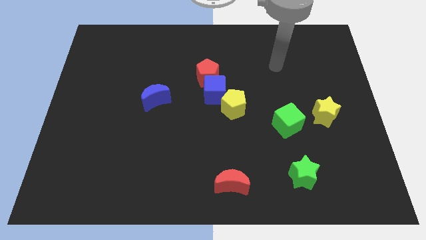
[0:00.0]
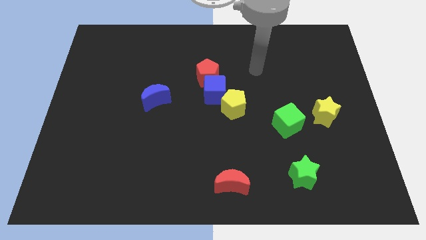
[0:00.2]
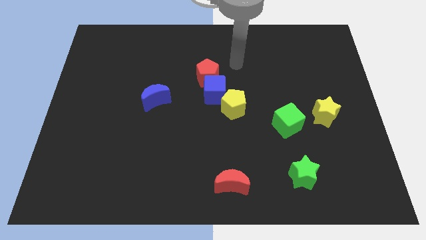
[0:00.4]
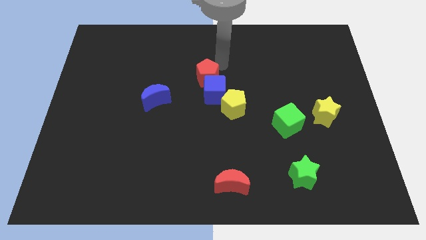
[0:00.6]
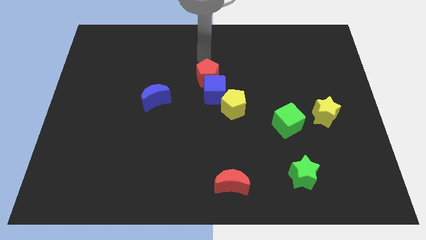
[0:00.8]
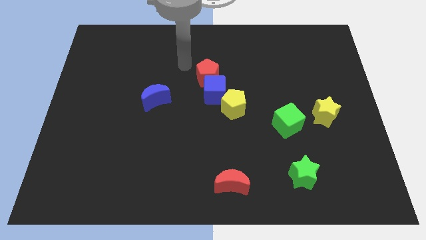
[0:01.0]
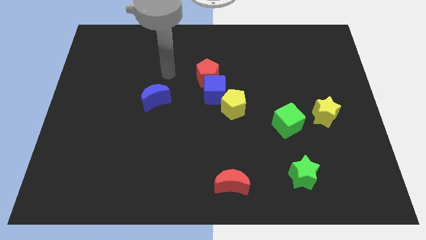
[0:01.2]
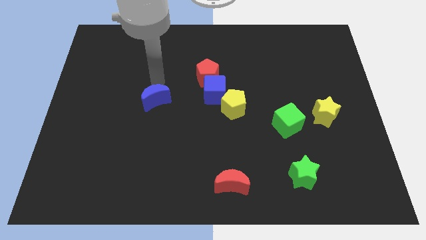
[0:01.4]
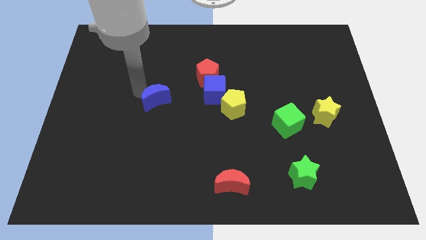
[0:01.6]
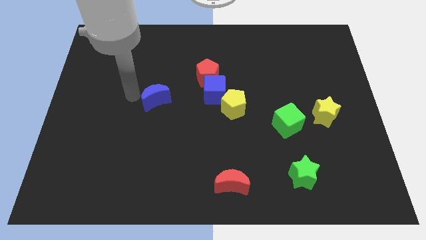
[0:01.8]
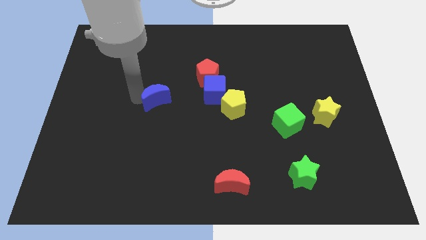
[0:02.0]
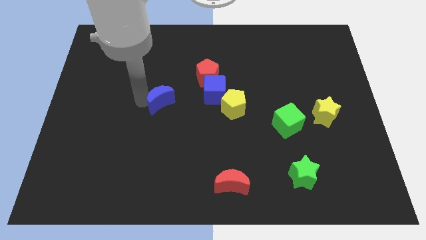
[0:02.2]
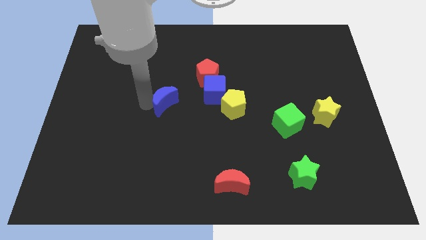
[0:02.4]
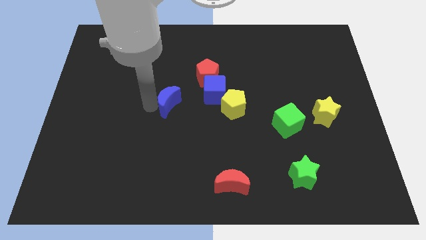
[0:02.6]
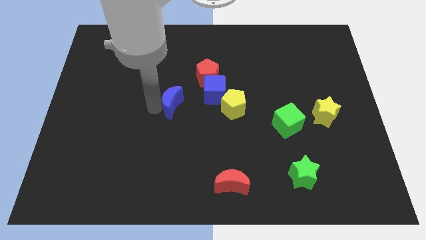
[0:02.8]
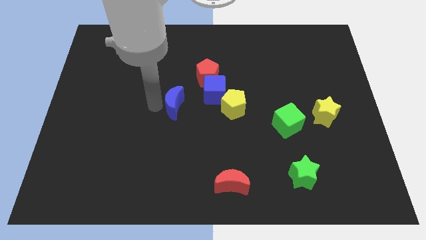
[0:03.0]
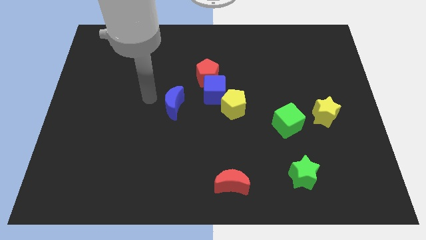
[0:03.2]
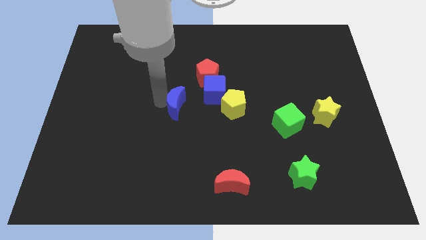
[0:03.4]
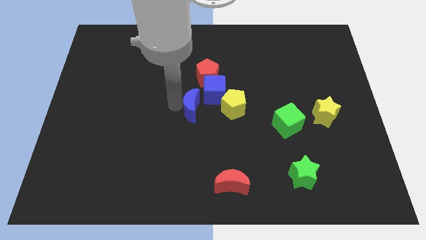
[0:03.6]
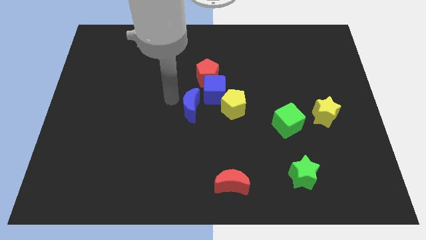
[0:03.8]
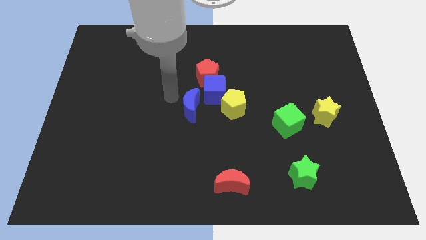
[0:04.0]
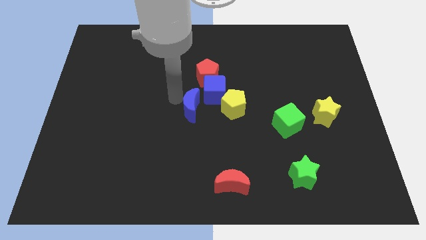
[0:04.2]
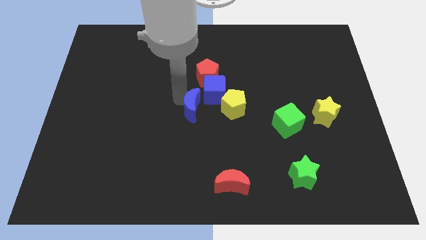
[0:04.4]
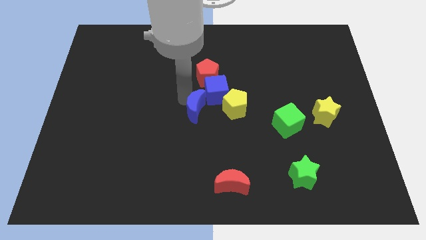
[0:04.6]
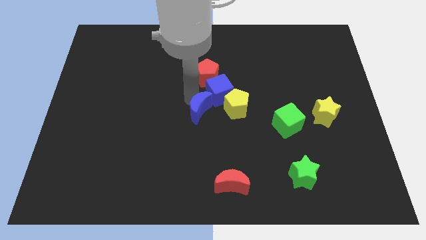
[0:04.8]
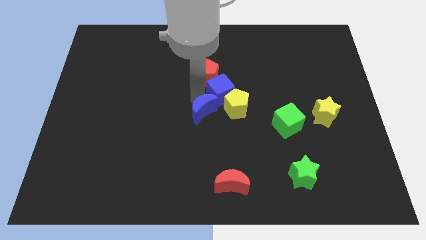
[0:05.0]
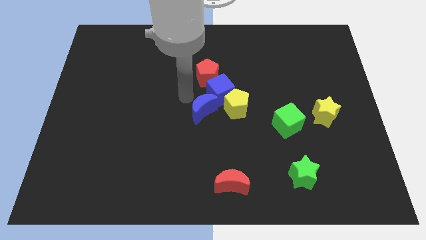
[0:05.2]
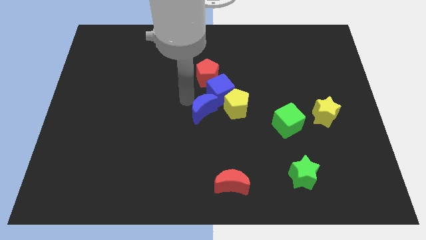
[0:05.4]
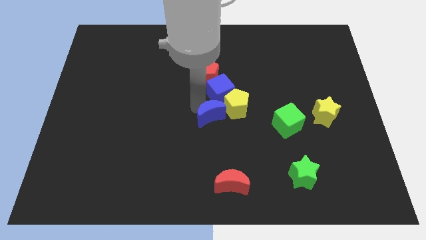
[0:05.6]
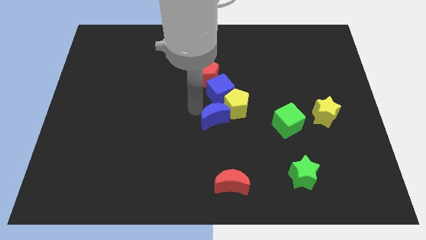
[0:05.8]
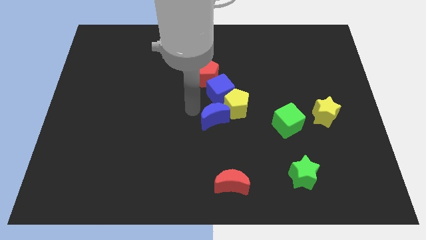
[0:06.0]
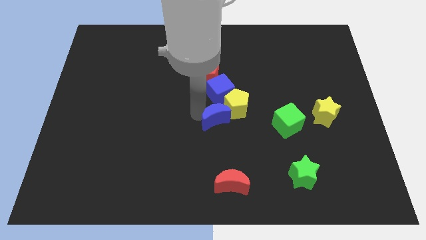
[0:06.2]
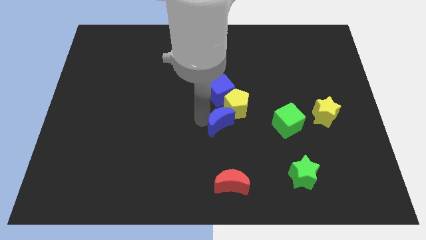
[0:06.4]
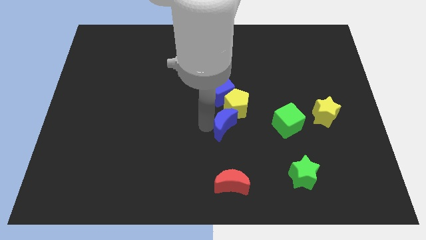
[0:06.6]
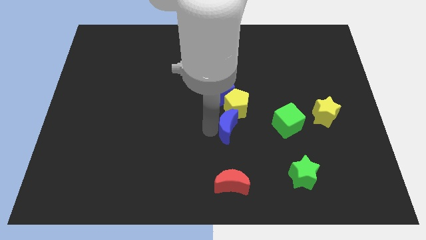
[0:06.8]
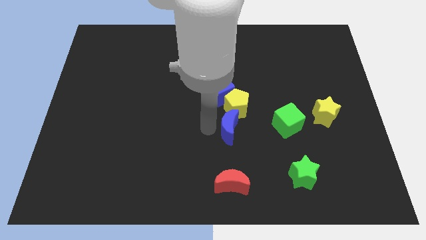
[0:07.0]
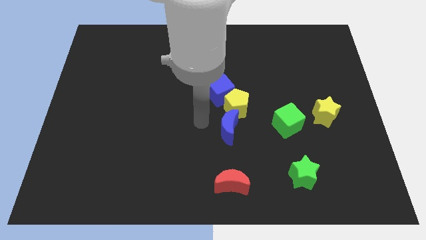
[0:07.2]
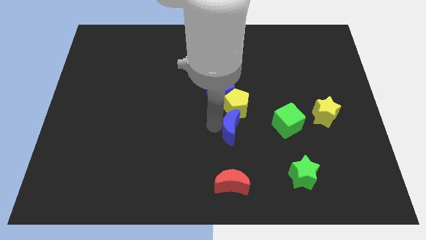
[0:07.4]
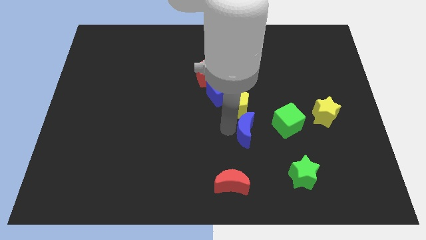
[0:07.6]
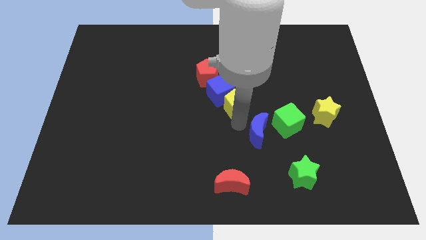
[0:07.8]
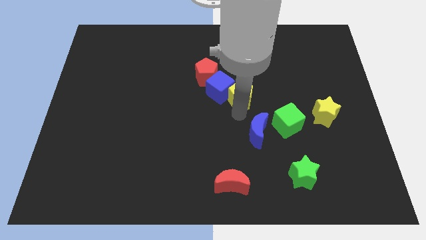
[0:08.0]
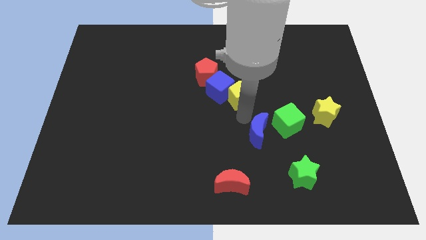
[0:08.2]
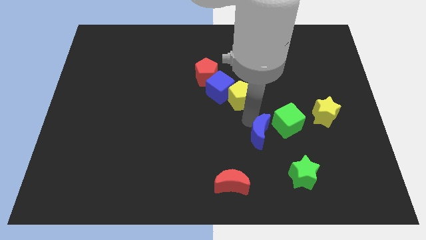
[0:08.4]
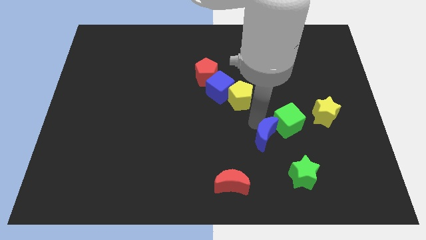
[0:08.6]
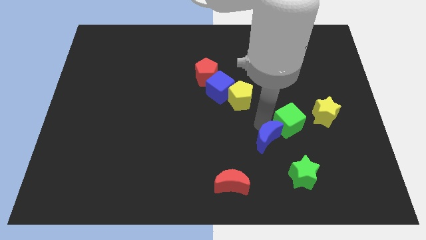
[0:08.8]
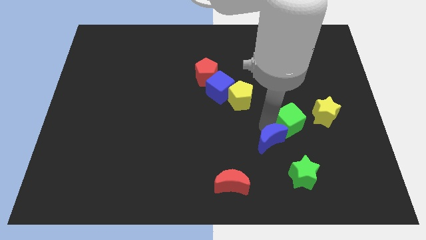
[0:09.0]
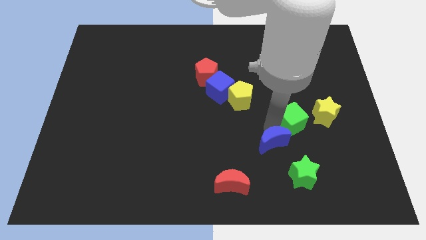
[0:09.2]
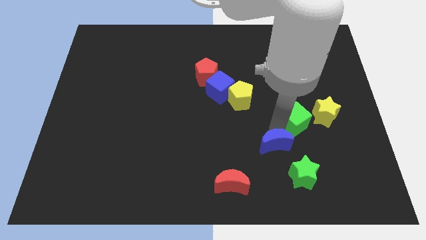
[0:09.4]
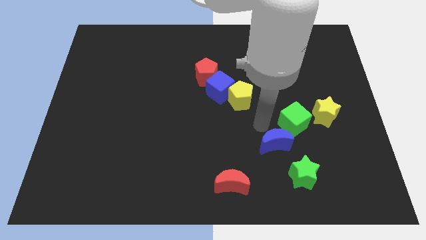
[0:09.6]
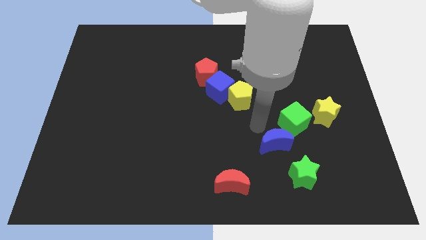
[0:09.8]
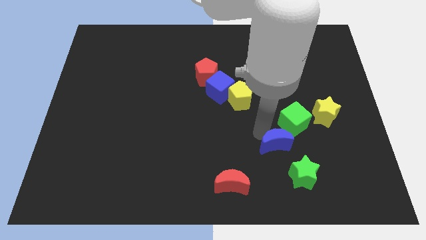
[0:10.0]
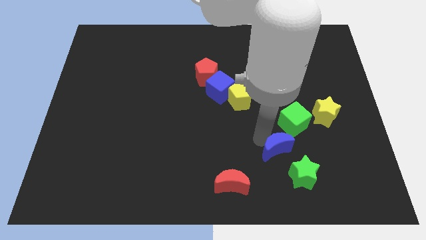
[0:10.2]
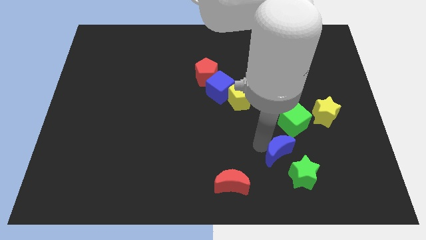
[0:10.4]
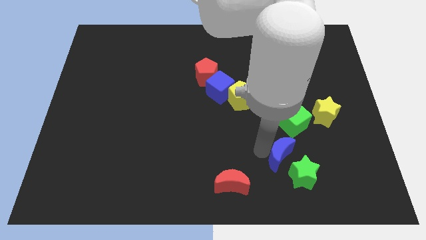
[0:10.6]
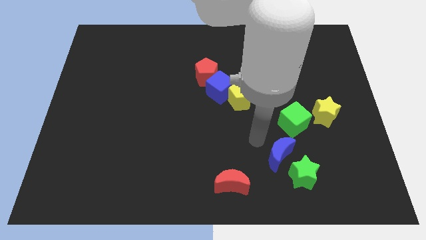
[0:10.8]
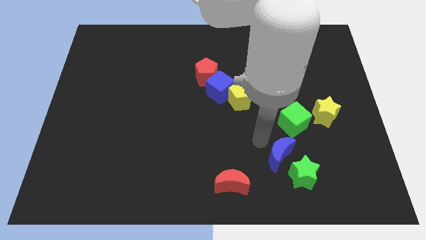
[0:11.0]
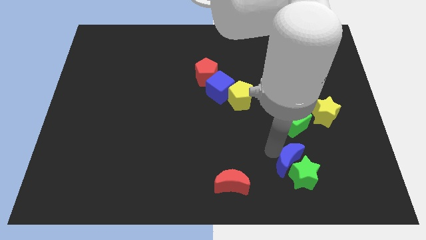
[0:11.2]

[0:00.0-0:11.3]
move the blue moon towards the green star

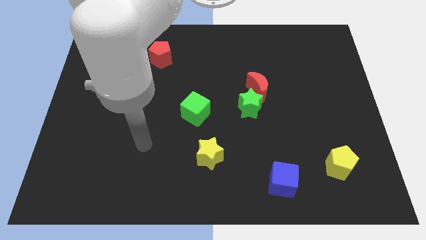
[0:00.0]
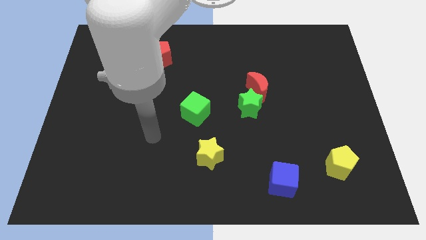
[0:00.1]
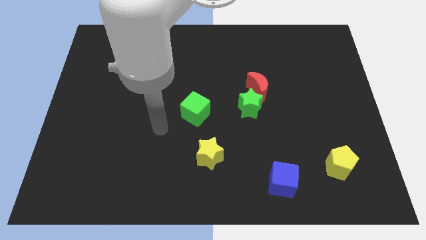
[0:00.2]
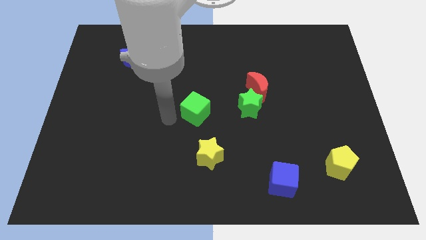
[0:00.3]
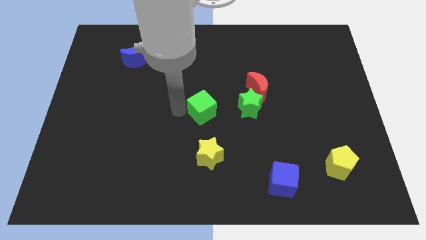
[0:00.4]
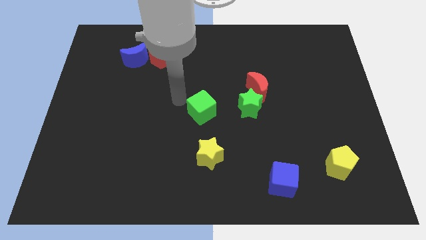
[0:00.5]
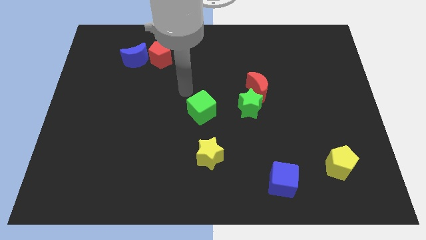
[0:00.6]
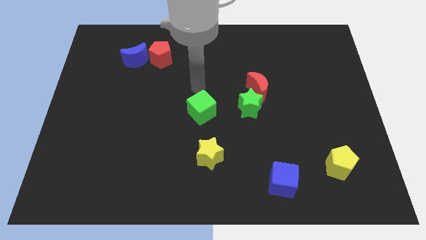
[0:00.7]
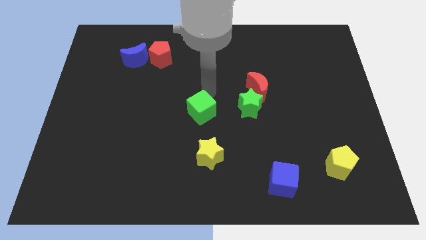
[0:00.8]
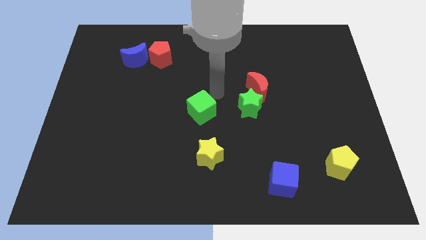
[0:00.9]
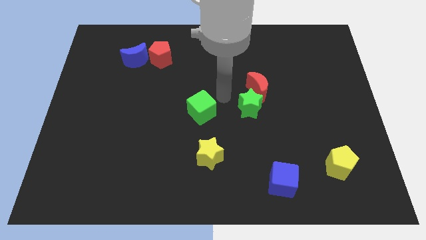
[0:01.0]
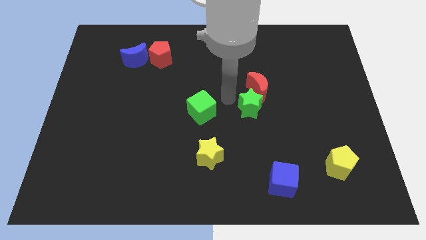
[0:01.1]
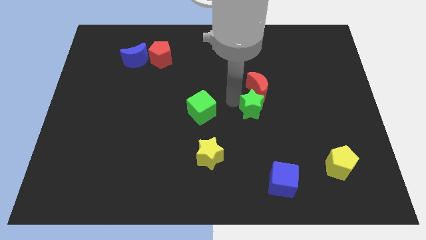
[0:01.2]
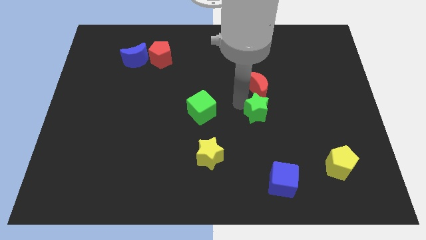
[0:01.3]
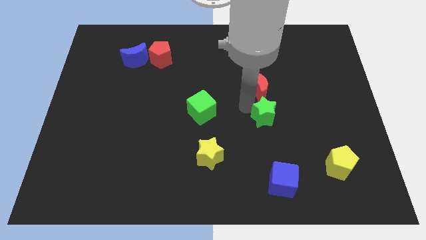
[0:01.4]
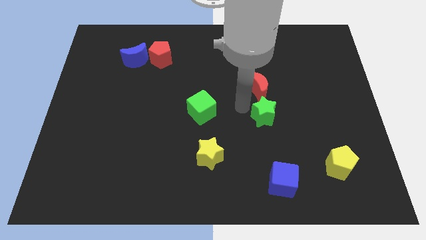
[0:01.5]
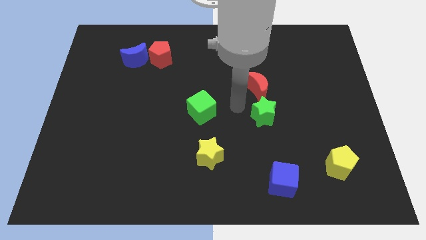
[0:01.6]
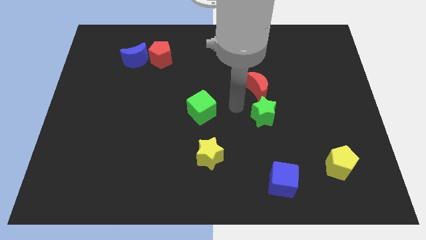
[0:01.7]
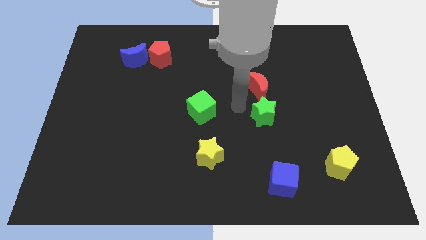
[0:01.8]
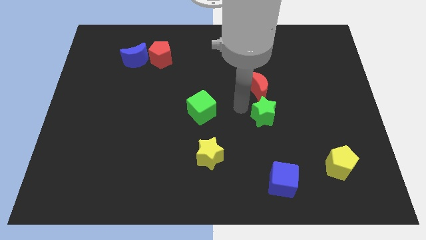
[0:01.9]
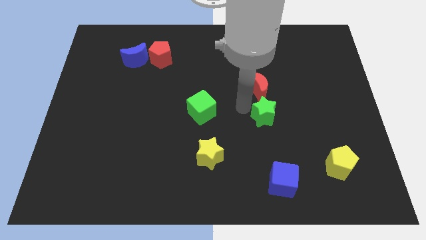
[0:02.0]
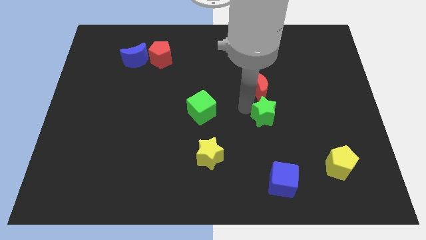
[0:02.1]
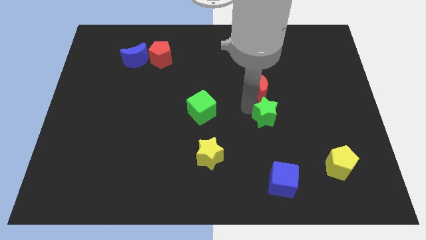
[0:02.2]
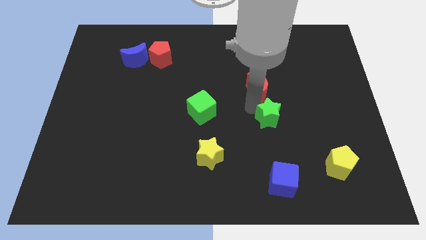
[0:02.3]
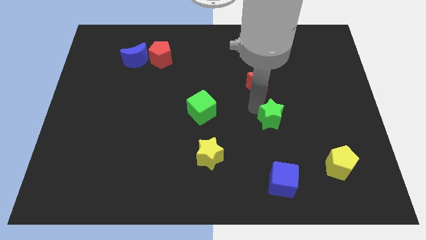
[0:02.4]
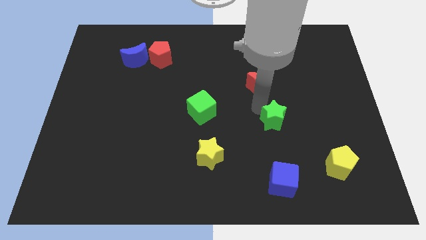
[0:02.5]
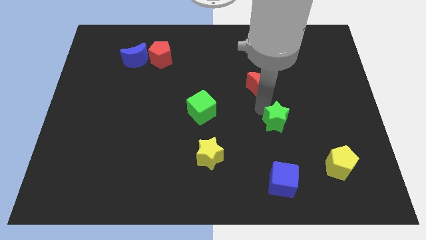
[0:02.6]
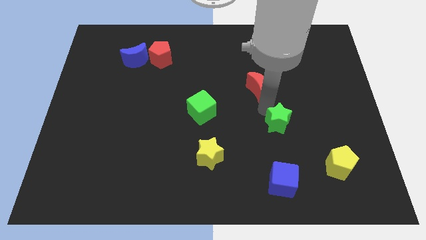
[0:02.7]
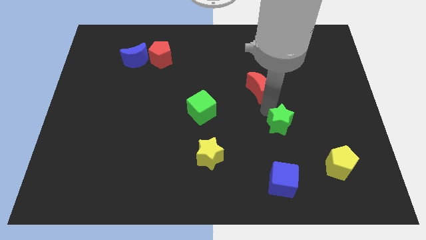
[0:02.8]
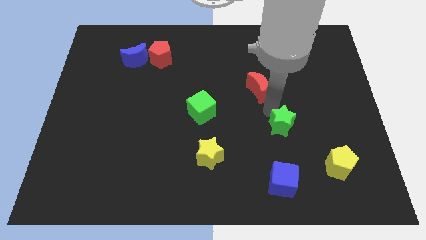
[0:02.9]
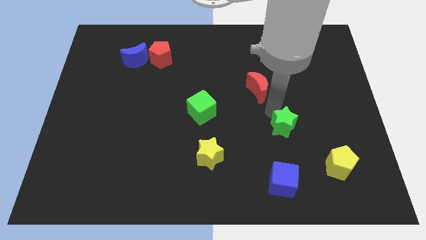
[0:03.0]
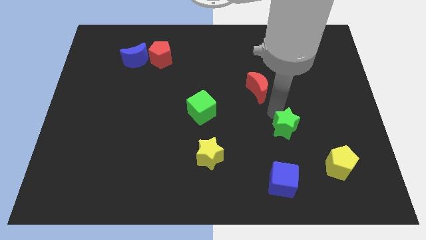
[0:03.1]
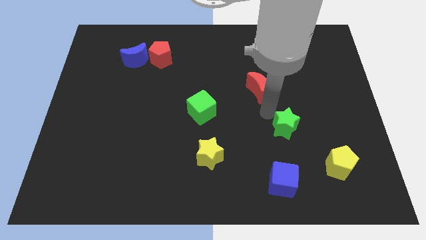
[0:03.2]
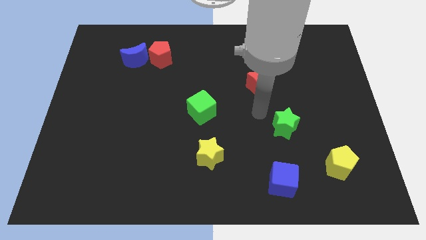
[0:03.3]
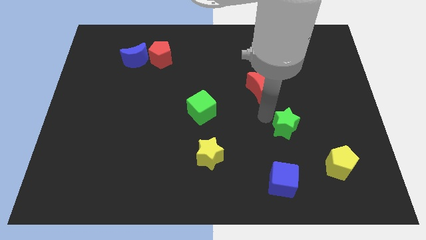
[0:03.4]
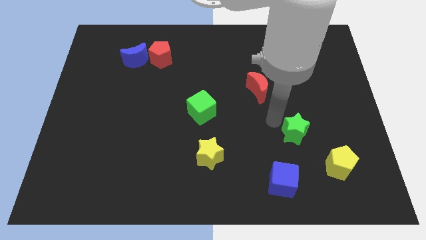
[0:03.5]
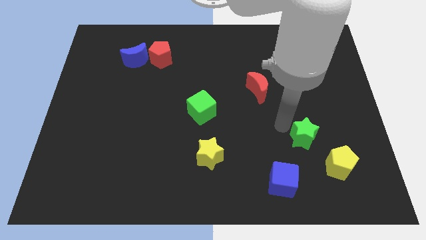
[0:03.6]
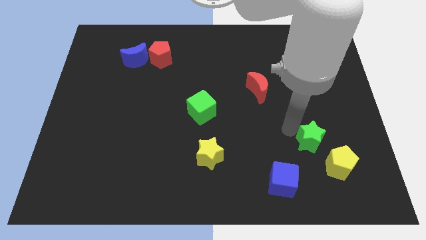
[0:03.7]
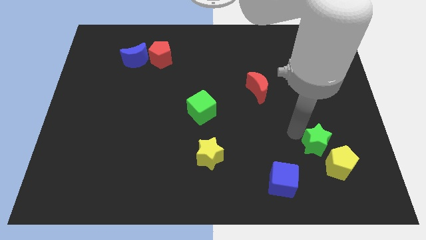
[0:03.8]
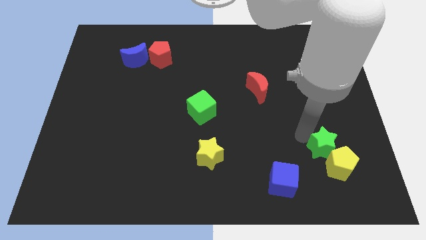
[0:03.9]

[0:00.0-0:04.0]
move the green star to the yellow pentagon
